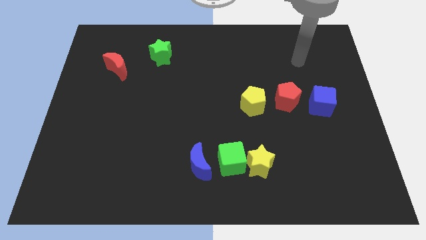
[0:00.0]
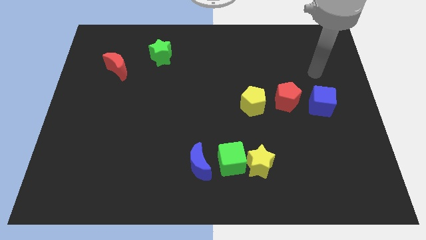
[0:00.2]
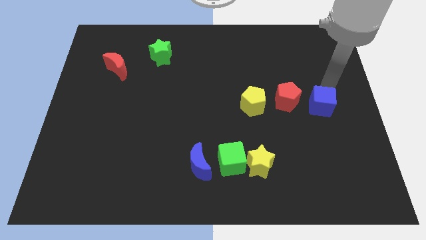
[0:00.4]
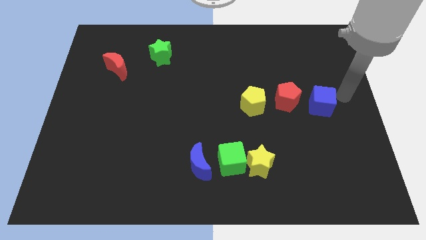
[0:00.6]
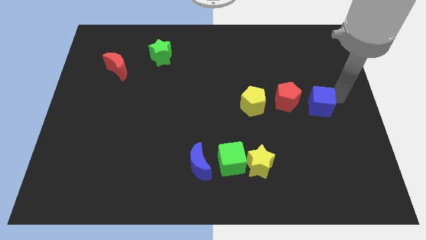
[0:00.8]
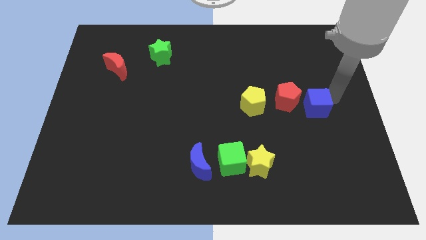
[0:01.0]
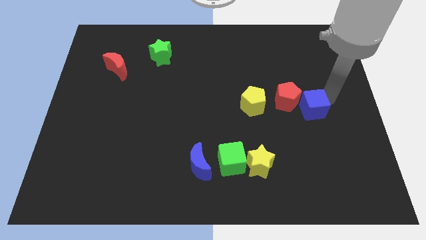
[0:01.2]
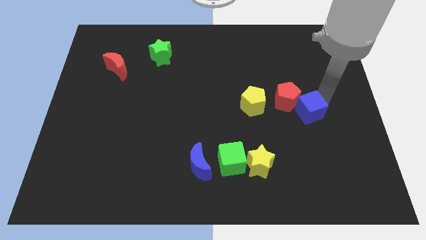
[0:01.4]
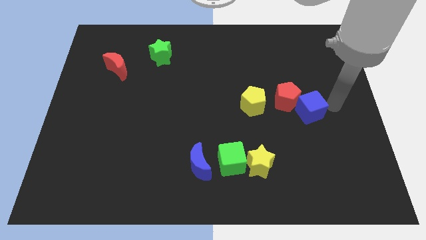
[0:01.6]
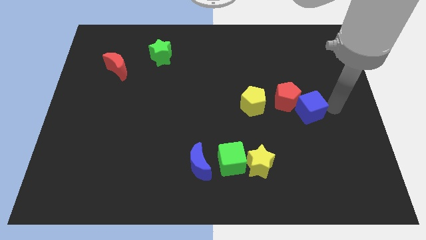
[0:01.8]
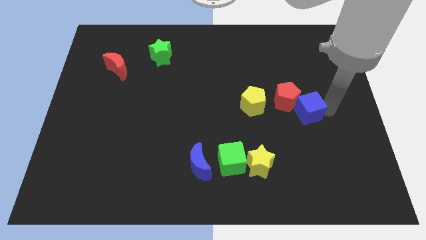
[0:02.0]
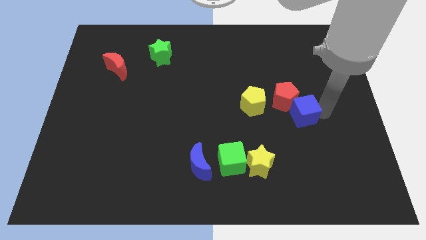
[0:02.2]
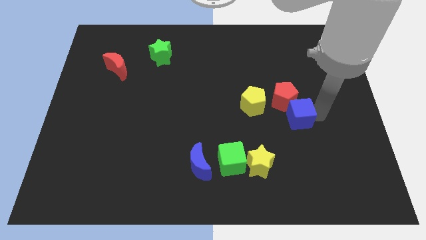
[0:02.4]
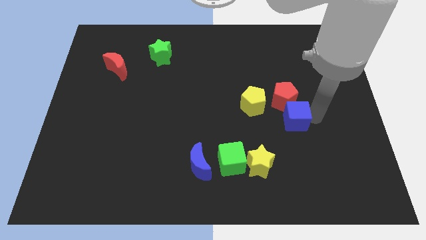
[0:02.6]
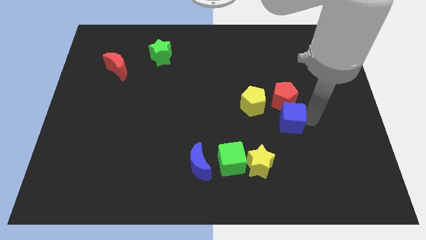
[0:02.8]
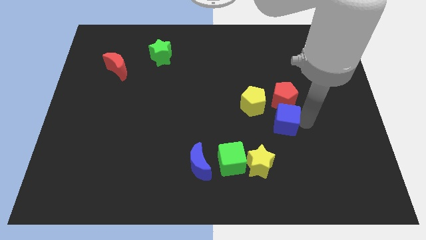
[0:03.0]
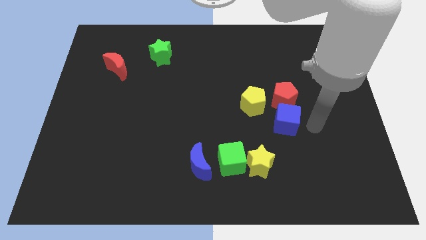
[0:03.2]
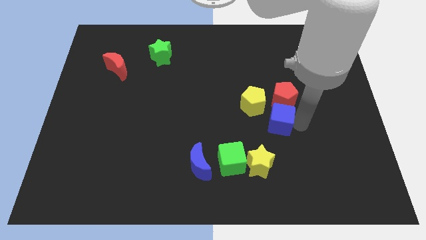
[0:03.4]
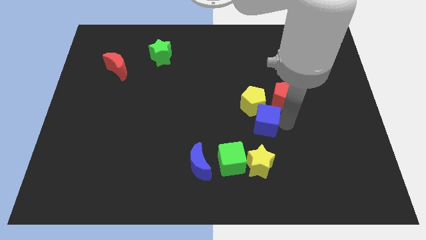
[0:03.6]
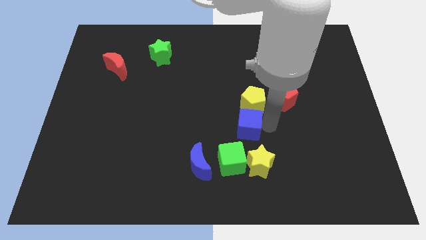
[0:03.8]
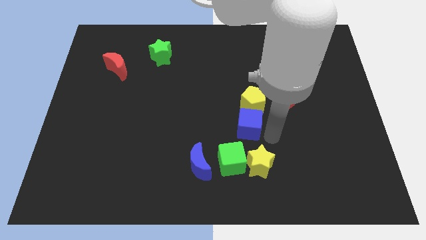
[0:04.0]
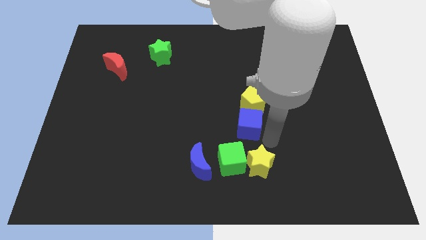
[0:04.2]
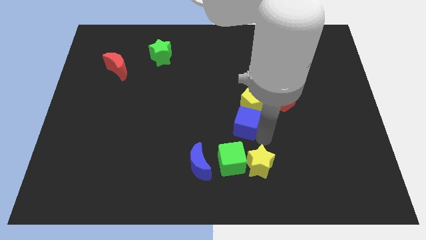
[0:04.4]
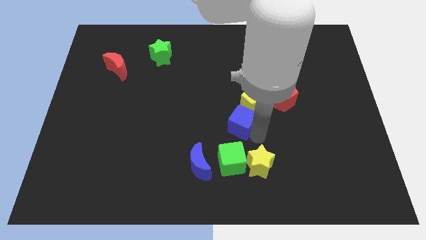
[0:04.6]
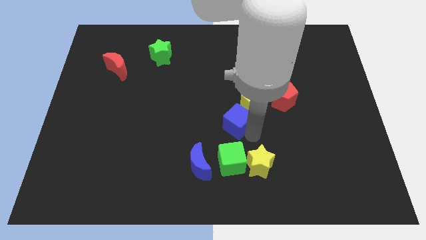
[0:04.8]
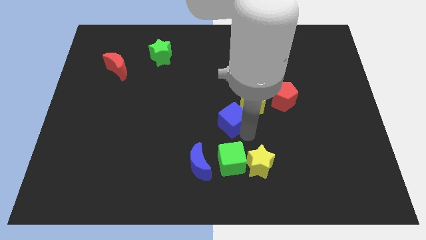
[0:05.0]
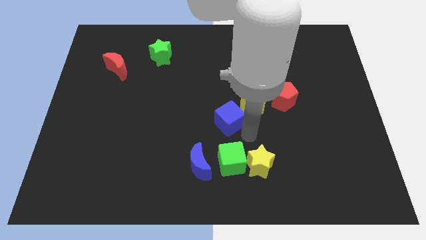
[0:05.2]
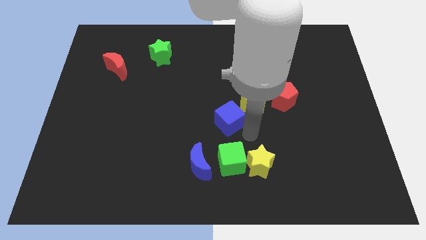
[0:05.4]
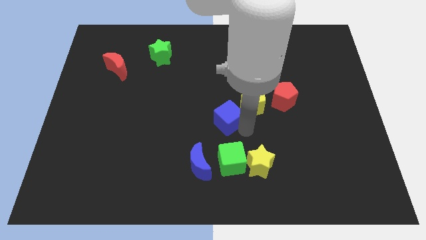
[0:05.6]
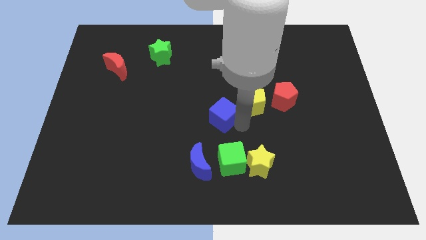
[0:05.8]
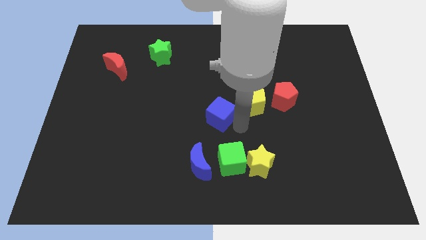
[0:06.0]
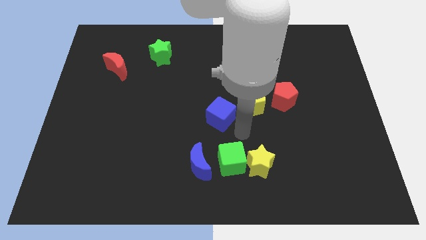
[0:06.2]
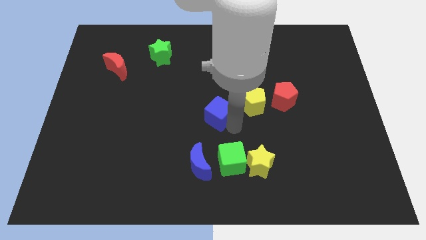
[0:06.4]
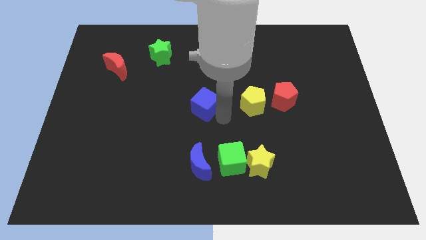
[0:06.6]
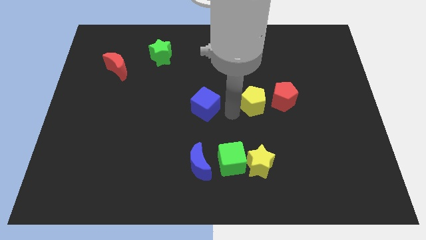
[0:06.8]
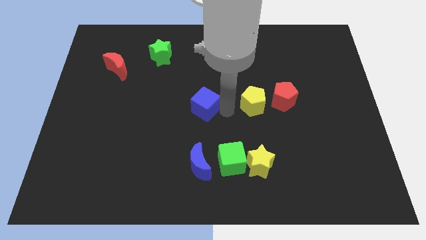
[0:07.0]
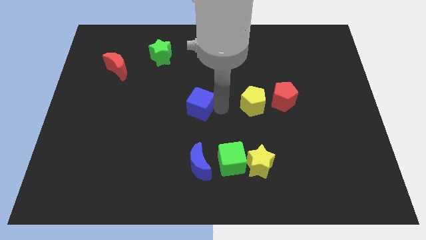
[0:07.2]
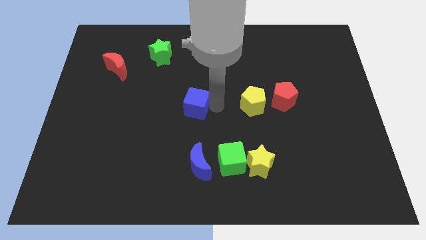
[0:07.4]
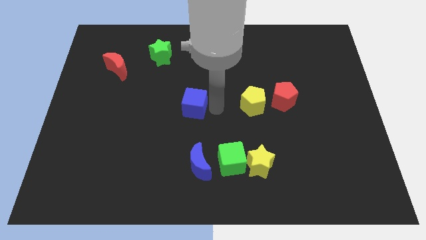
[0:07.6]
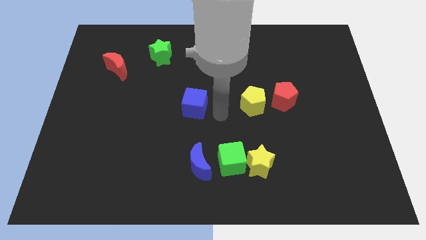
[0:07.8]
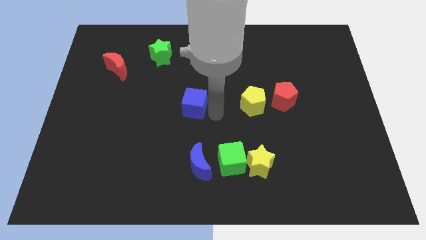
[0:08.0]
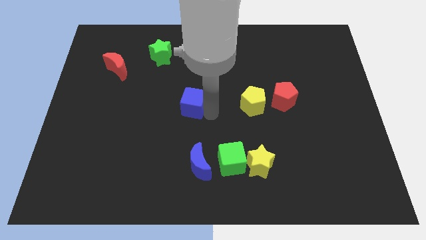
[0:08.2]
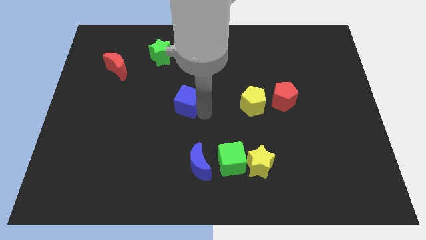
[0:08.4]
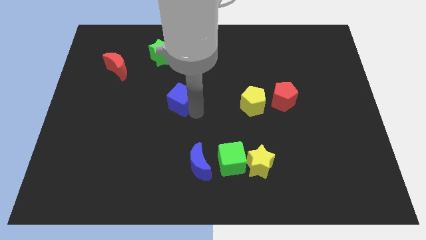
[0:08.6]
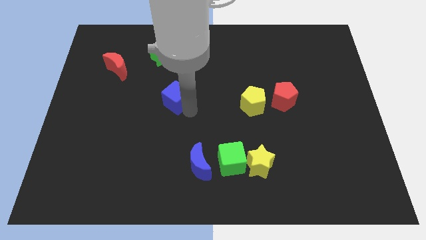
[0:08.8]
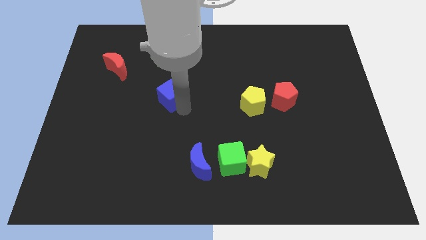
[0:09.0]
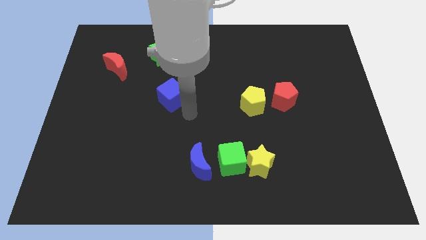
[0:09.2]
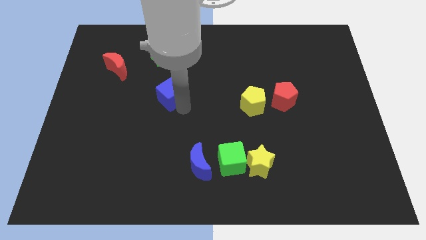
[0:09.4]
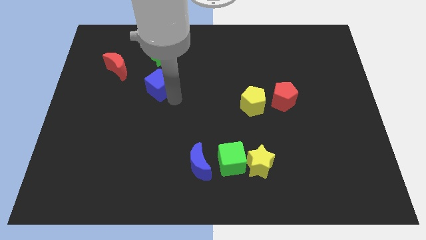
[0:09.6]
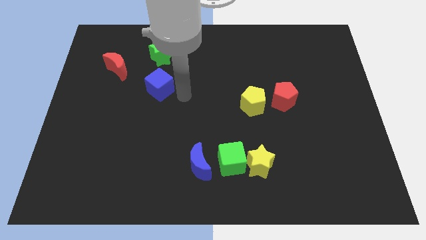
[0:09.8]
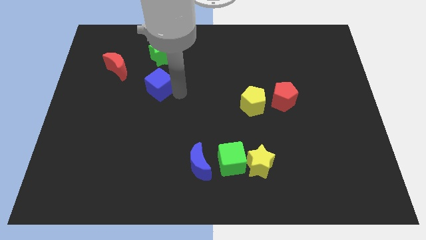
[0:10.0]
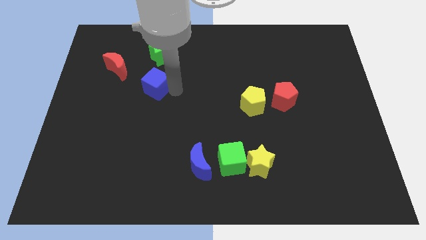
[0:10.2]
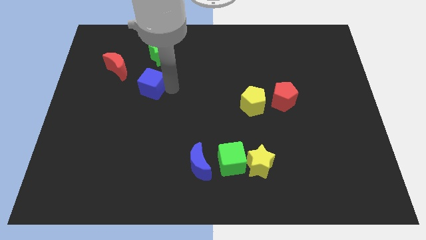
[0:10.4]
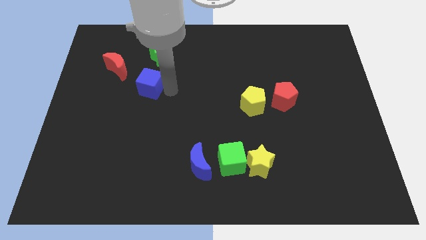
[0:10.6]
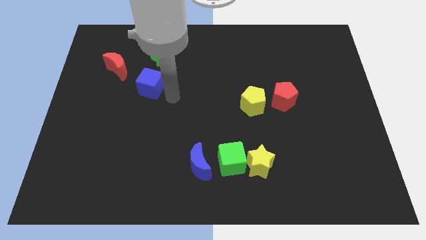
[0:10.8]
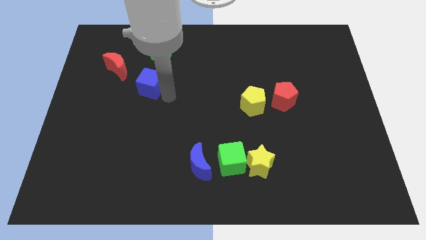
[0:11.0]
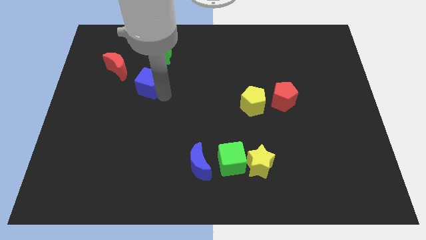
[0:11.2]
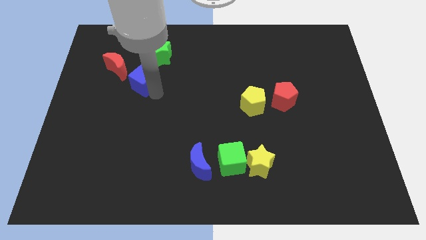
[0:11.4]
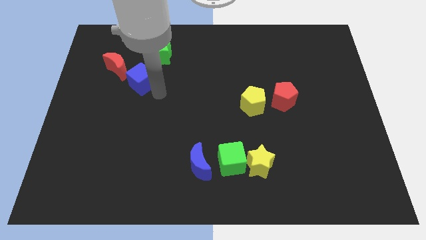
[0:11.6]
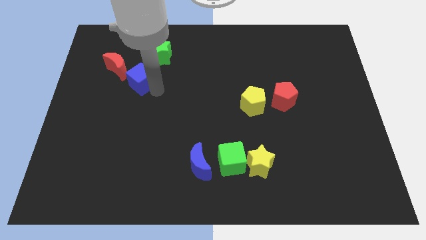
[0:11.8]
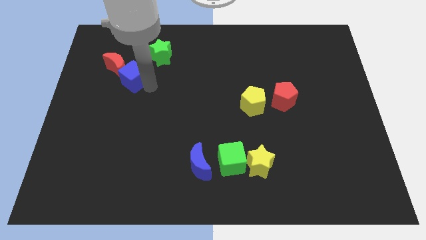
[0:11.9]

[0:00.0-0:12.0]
slide the blue cube close to the red moon
